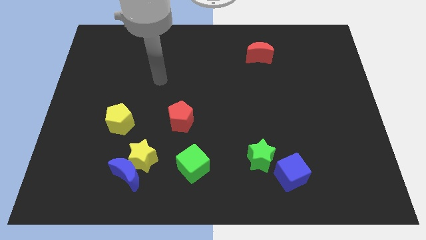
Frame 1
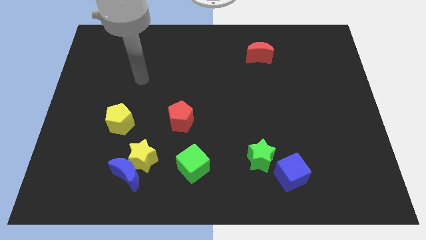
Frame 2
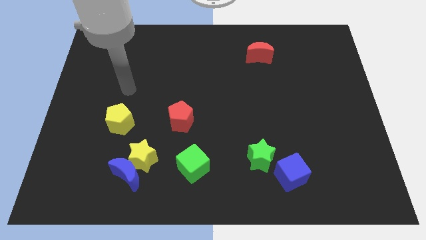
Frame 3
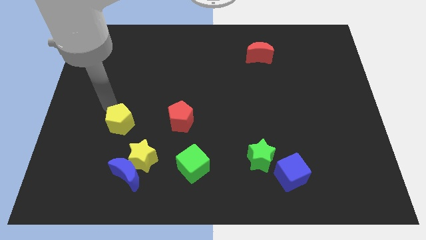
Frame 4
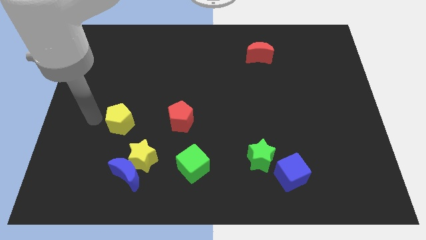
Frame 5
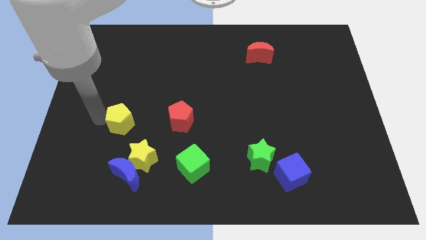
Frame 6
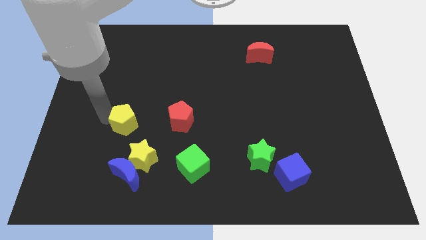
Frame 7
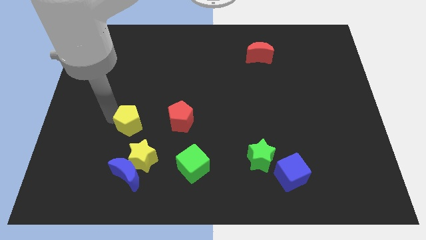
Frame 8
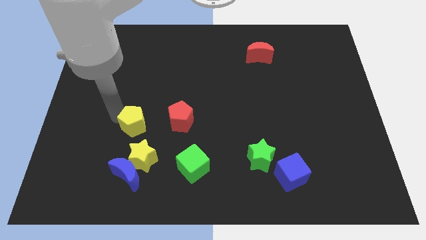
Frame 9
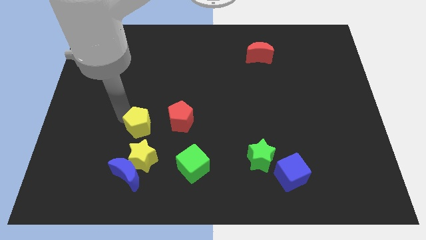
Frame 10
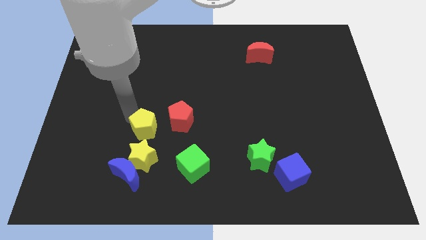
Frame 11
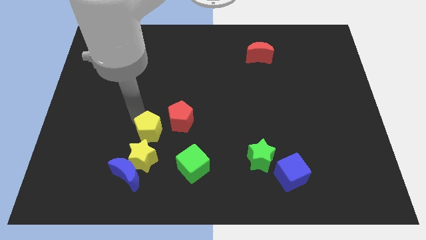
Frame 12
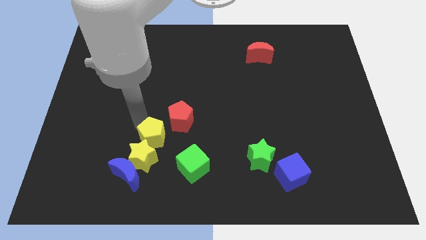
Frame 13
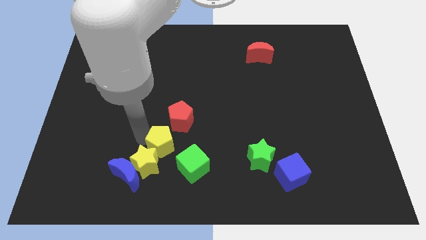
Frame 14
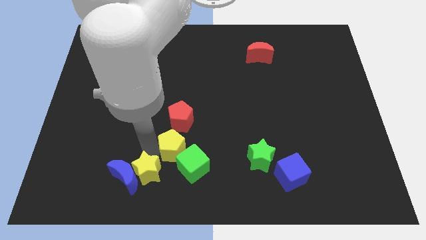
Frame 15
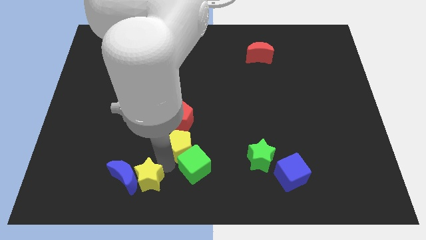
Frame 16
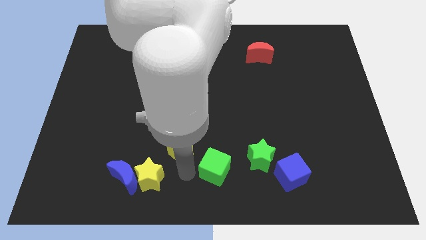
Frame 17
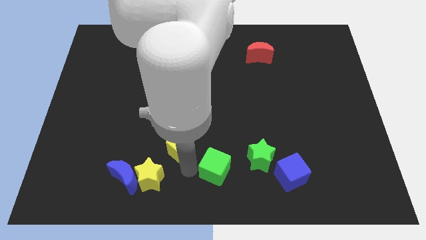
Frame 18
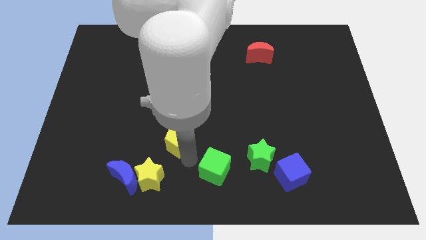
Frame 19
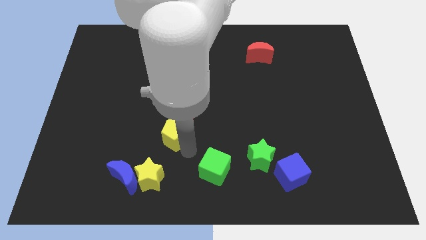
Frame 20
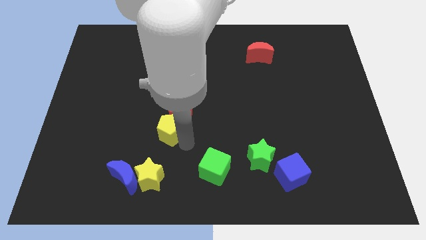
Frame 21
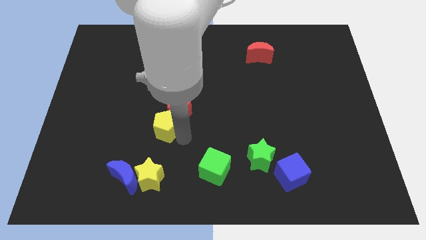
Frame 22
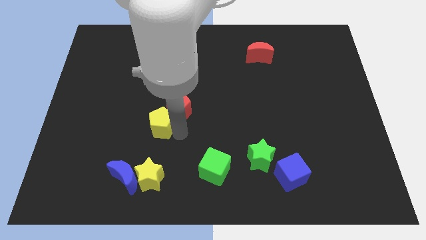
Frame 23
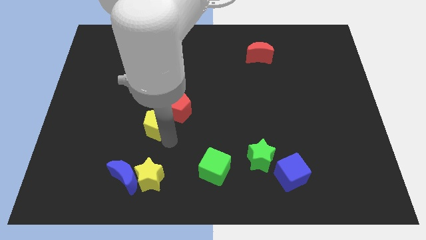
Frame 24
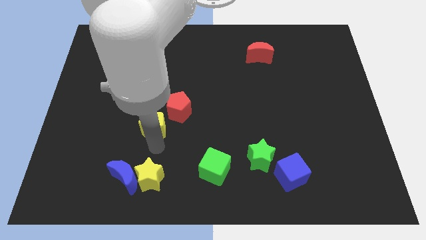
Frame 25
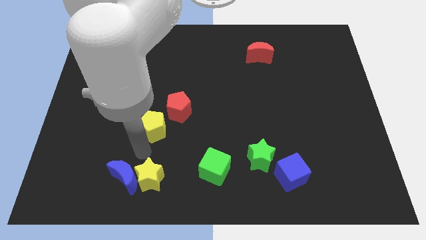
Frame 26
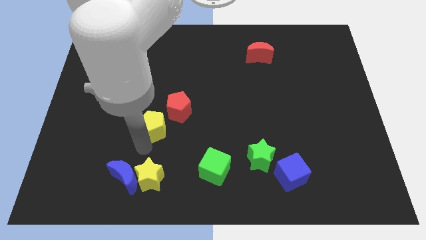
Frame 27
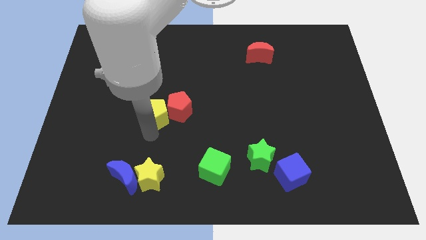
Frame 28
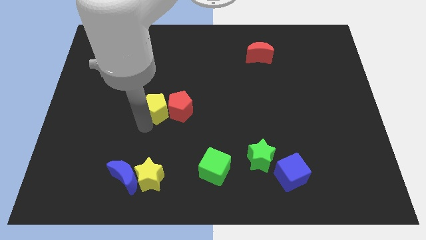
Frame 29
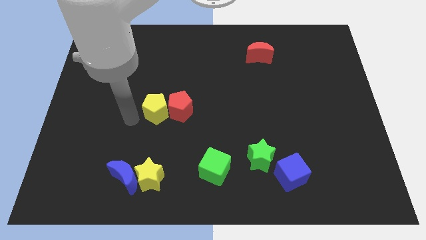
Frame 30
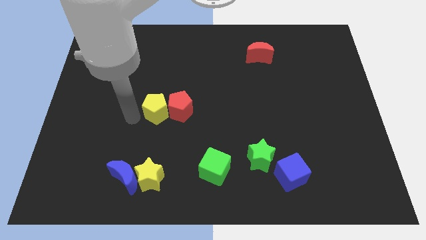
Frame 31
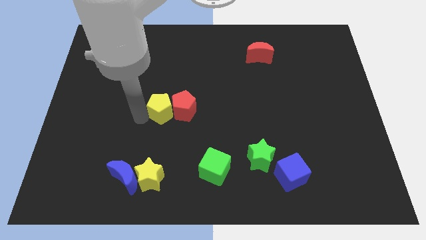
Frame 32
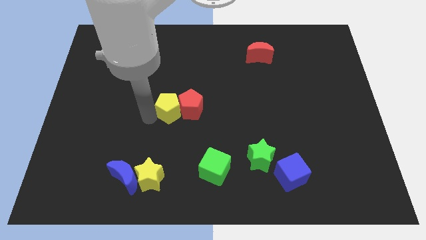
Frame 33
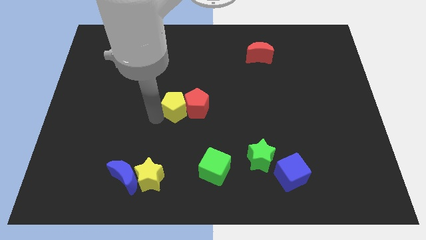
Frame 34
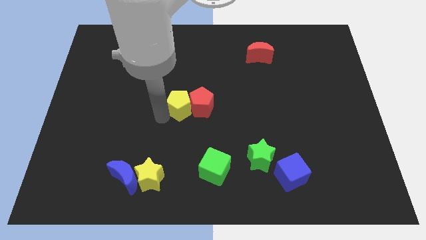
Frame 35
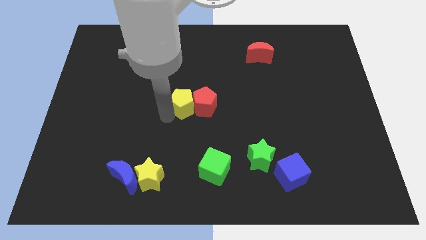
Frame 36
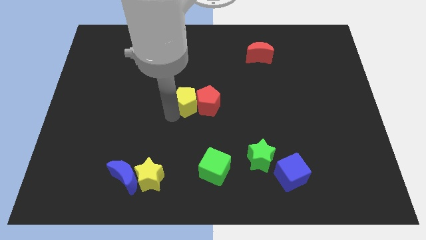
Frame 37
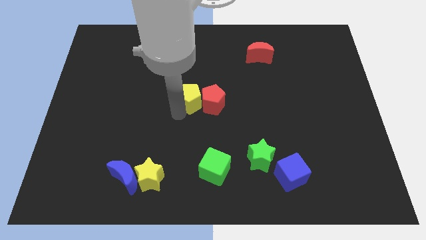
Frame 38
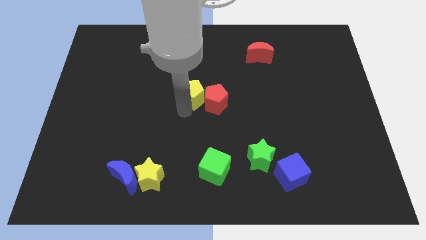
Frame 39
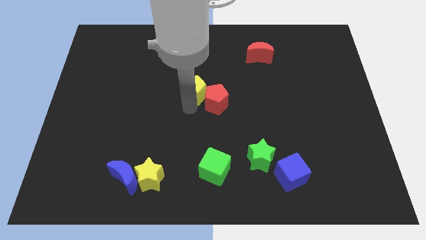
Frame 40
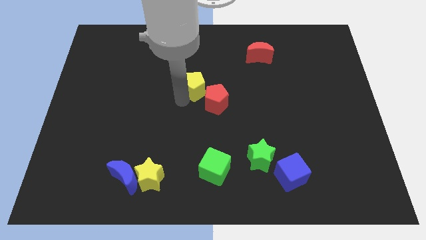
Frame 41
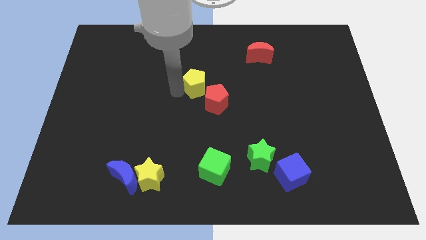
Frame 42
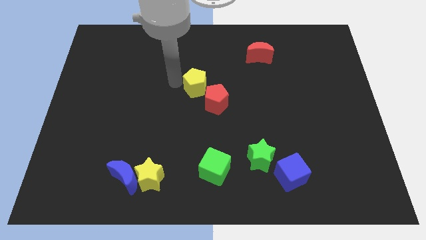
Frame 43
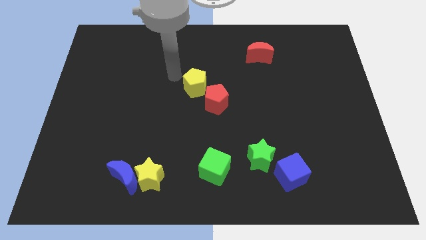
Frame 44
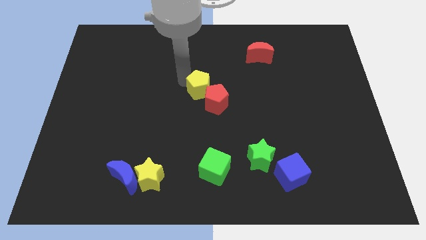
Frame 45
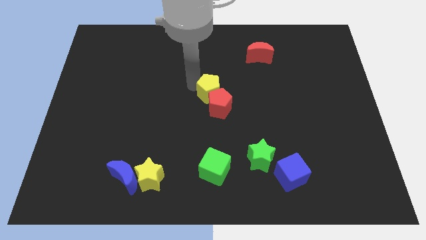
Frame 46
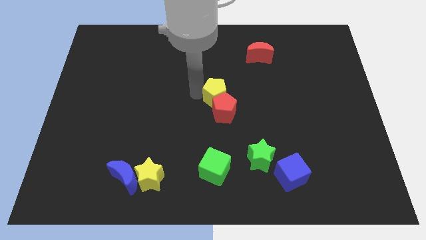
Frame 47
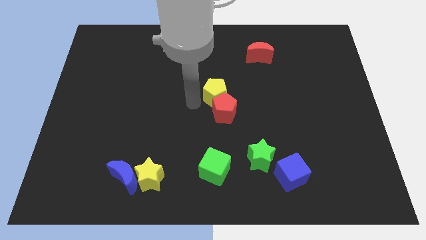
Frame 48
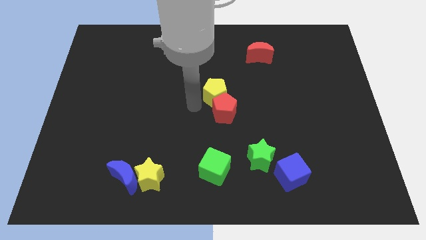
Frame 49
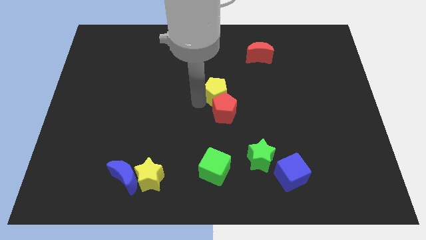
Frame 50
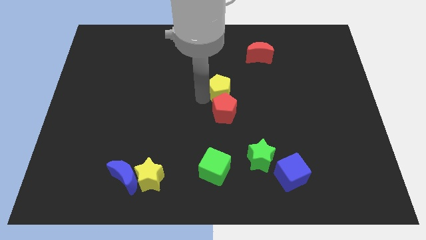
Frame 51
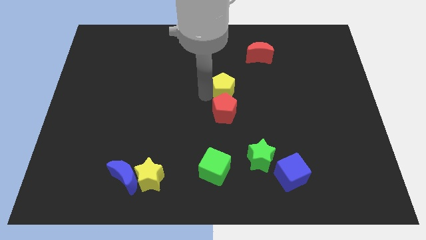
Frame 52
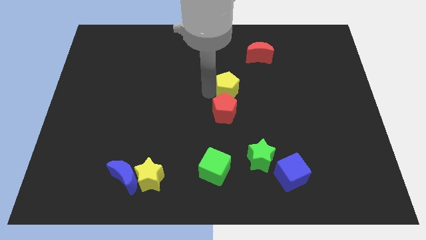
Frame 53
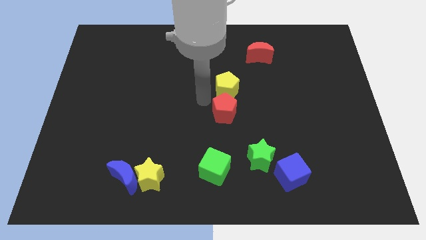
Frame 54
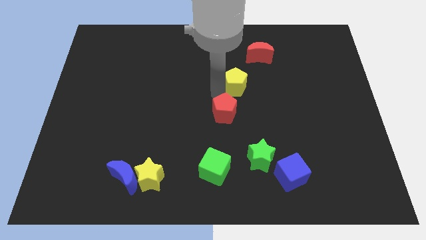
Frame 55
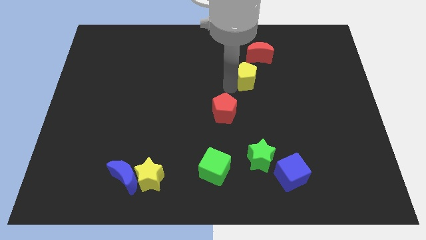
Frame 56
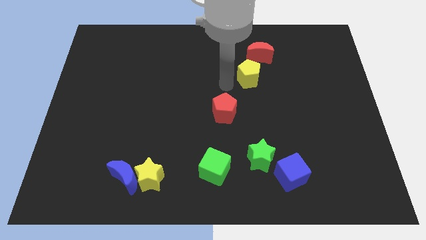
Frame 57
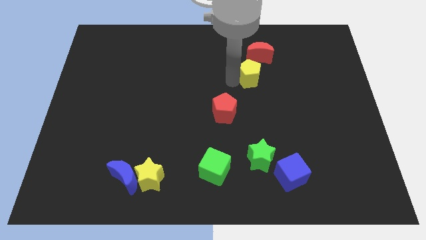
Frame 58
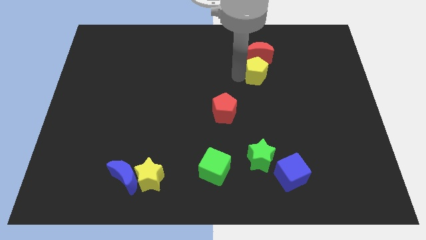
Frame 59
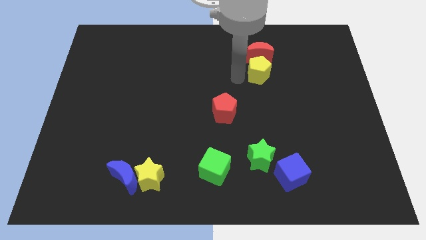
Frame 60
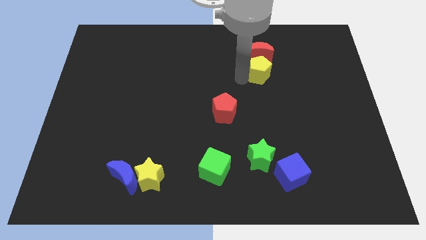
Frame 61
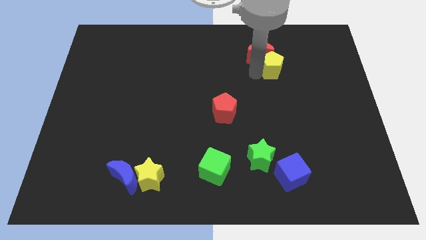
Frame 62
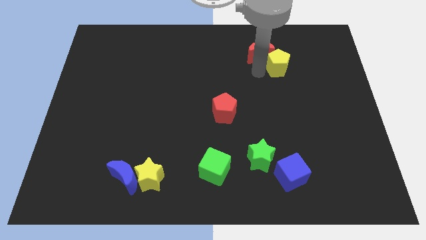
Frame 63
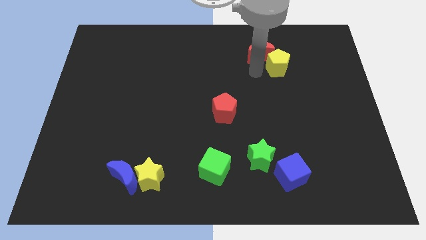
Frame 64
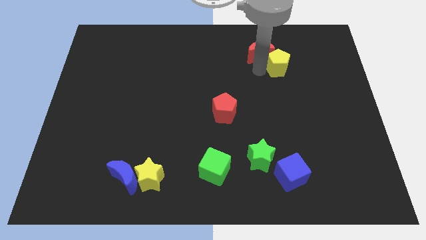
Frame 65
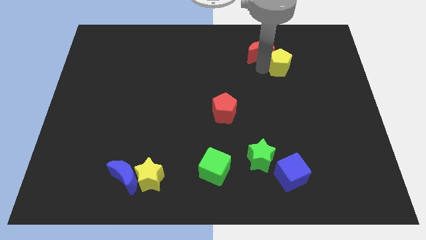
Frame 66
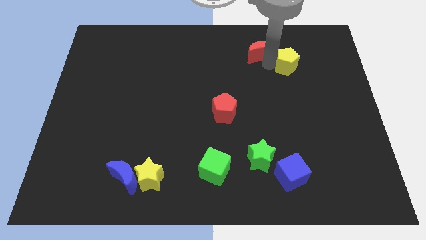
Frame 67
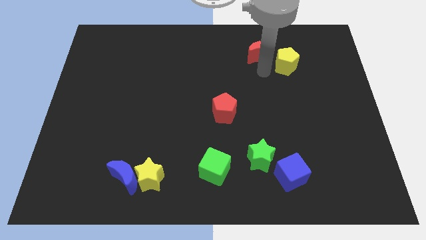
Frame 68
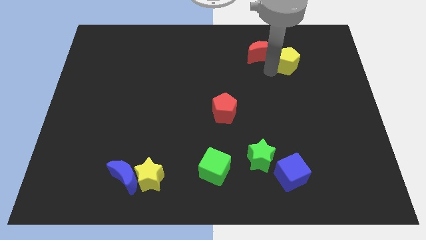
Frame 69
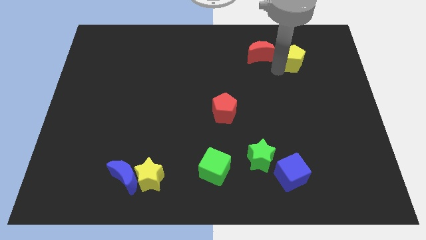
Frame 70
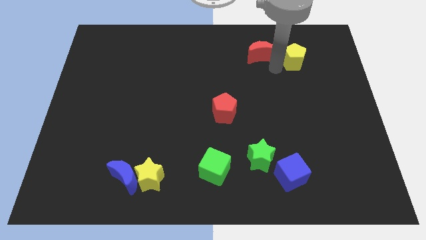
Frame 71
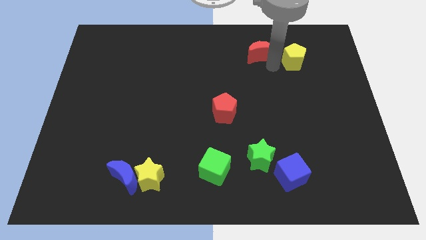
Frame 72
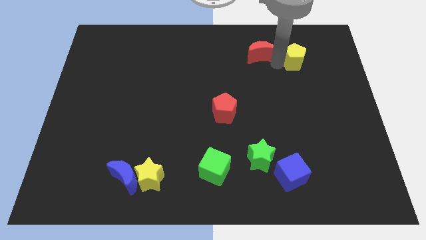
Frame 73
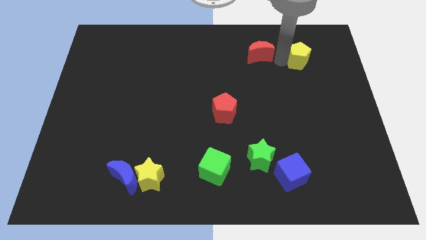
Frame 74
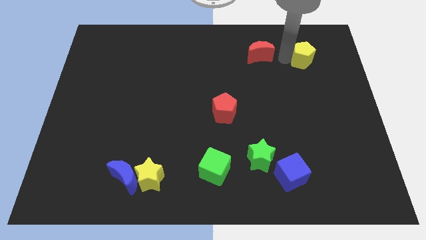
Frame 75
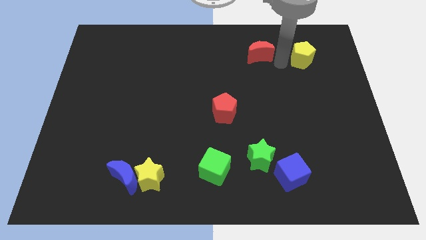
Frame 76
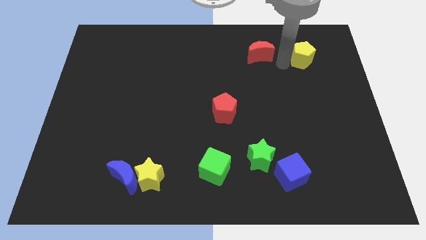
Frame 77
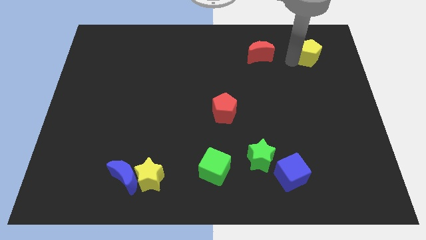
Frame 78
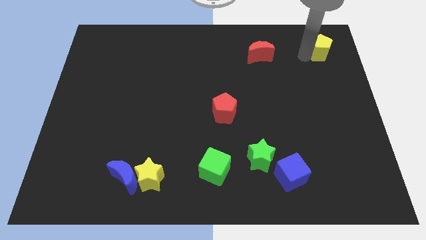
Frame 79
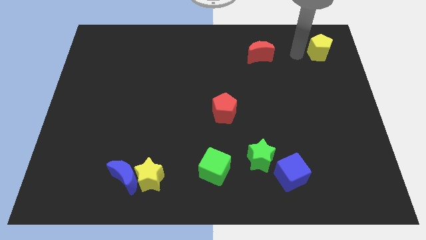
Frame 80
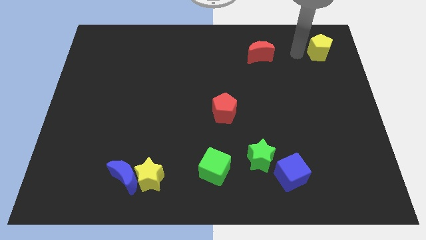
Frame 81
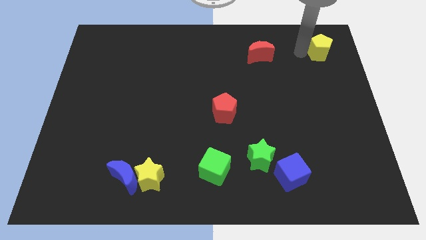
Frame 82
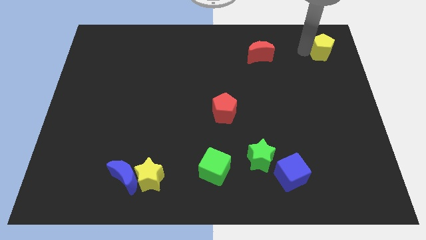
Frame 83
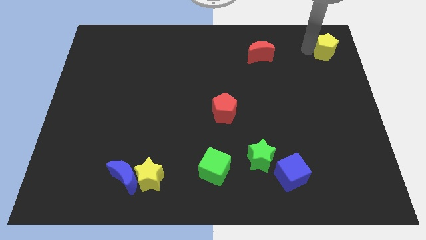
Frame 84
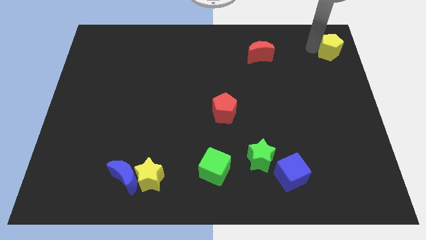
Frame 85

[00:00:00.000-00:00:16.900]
move the yellow pentagon to the top right
